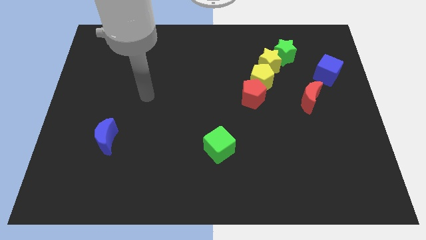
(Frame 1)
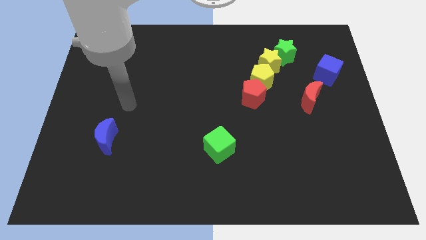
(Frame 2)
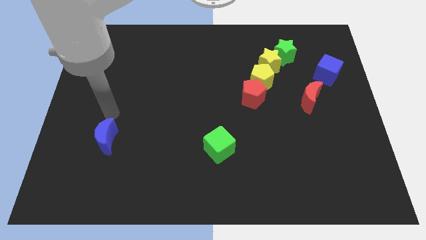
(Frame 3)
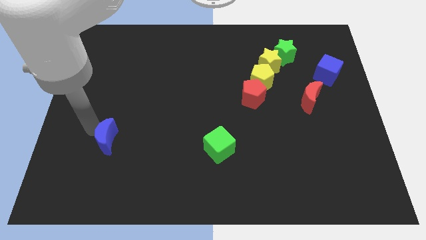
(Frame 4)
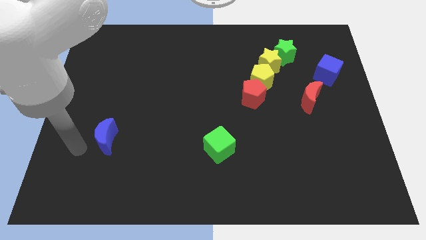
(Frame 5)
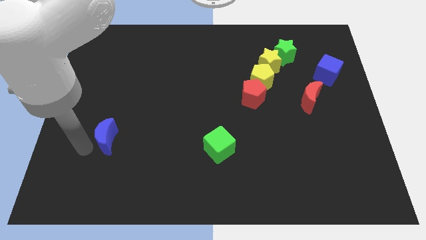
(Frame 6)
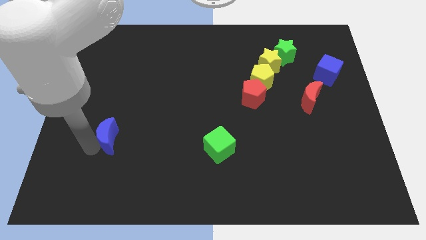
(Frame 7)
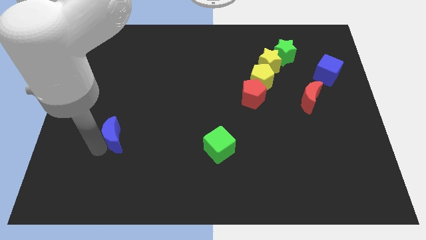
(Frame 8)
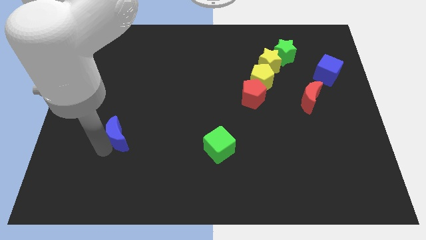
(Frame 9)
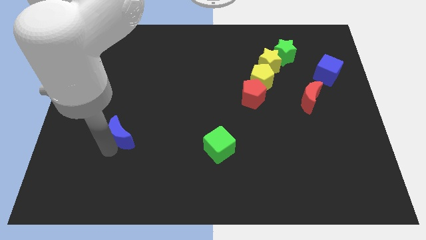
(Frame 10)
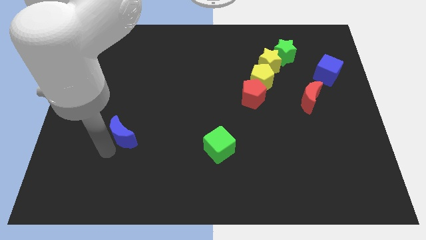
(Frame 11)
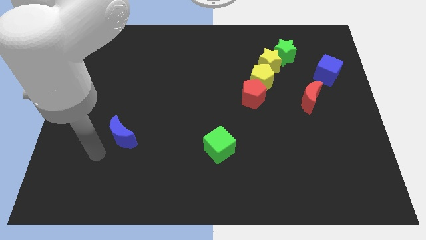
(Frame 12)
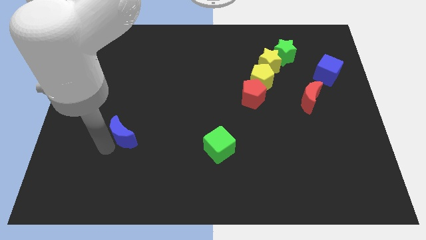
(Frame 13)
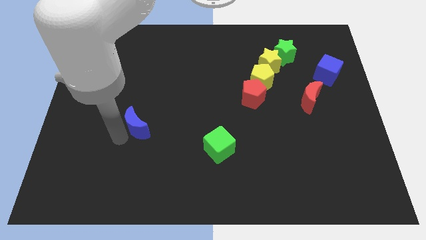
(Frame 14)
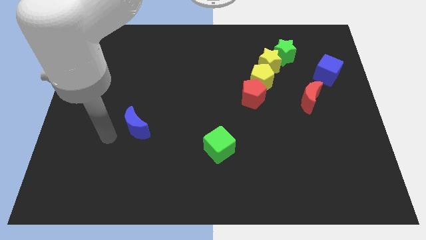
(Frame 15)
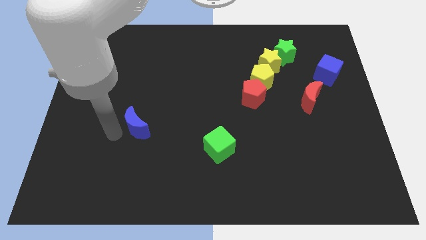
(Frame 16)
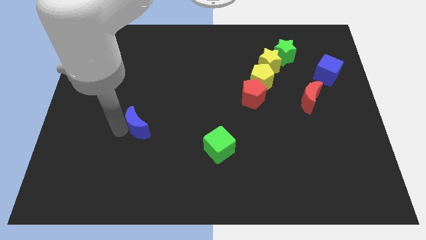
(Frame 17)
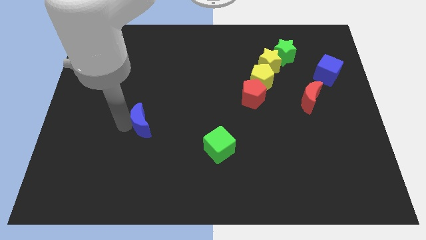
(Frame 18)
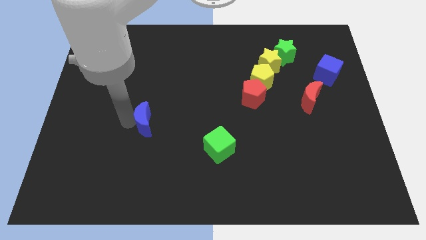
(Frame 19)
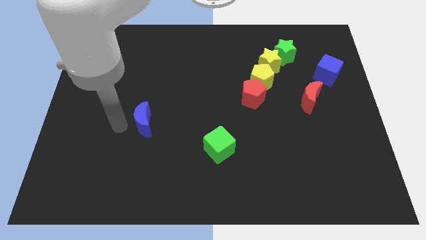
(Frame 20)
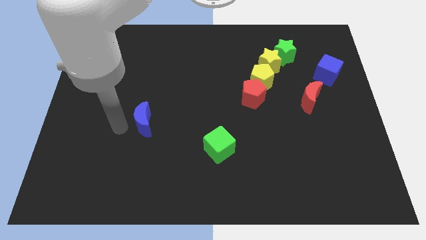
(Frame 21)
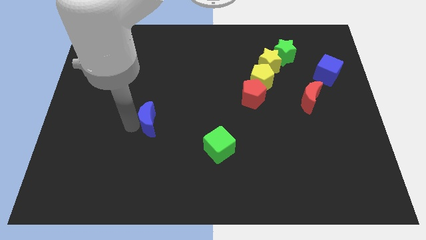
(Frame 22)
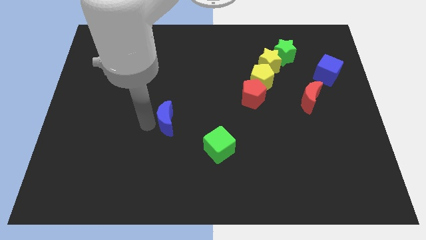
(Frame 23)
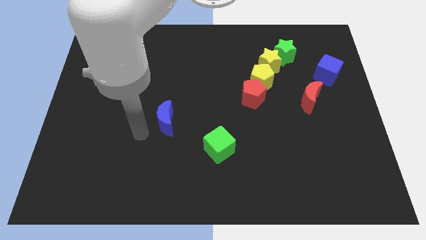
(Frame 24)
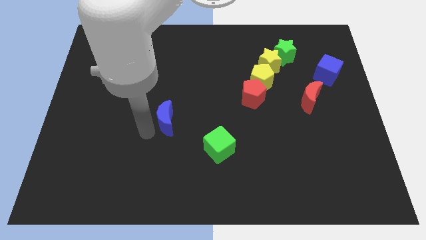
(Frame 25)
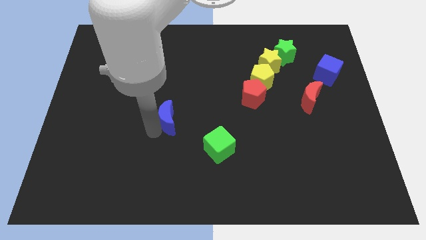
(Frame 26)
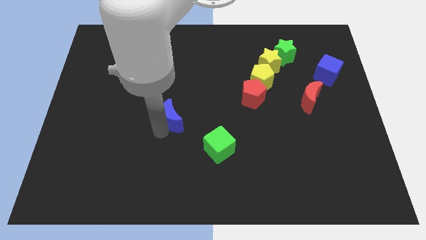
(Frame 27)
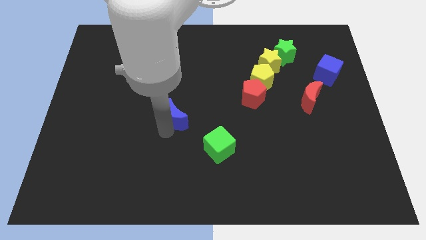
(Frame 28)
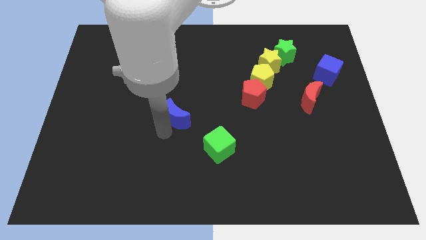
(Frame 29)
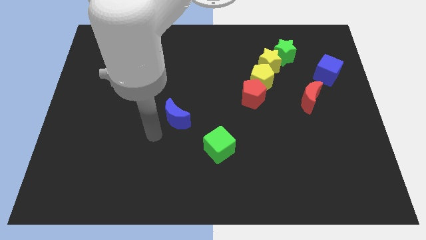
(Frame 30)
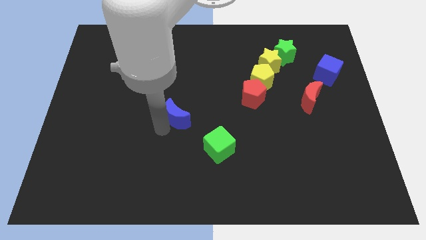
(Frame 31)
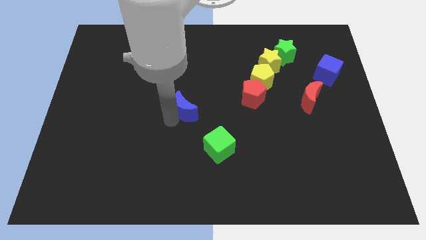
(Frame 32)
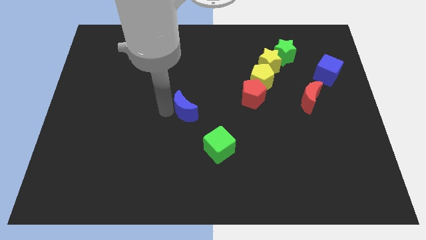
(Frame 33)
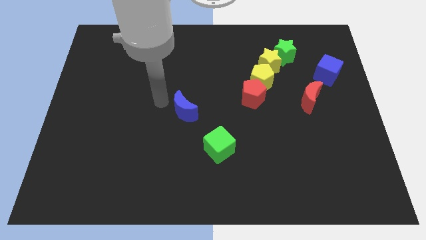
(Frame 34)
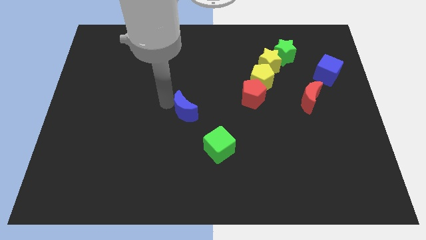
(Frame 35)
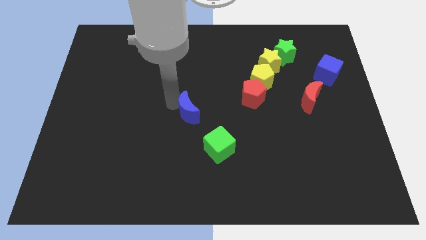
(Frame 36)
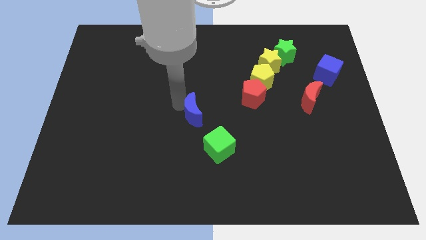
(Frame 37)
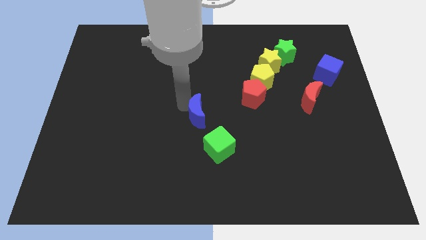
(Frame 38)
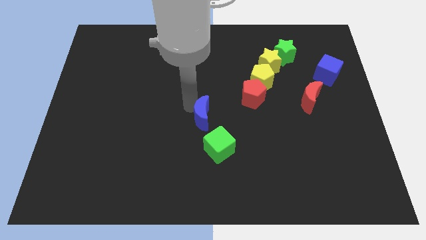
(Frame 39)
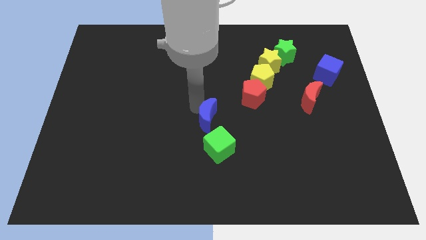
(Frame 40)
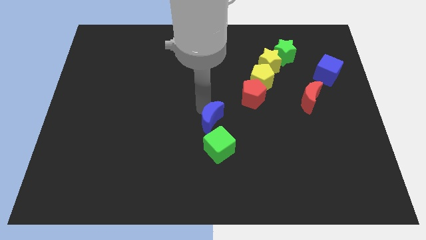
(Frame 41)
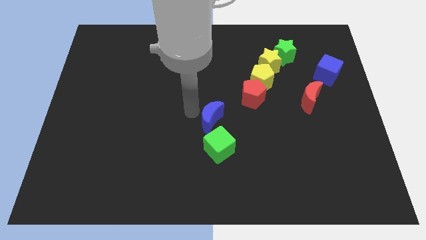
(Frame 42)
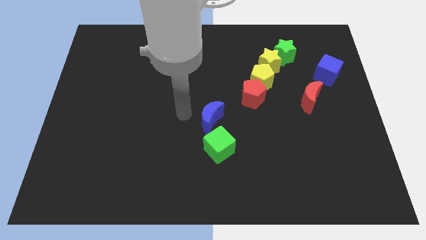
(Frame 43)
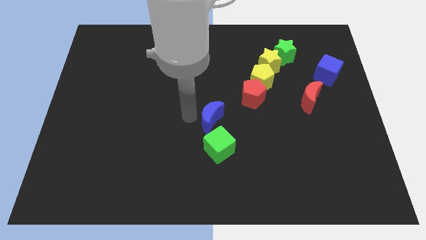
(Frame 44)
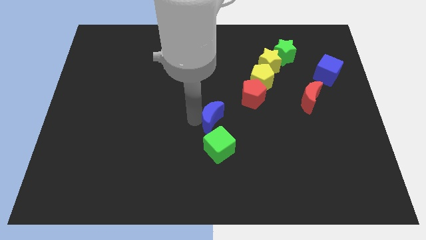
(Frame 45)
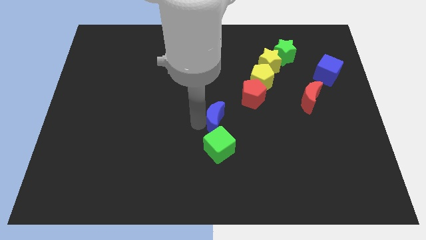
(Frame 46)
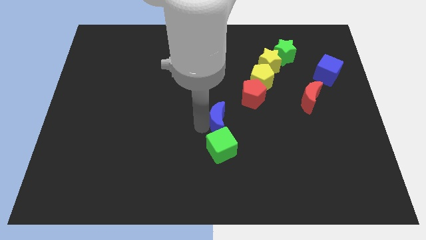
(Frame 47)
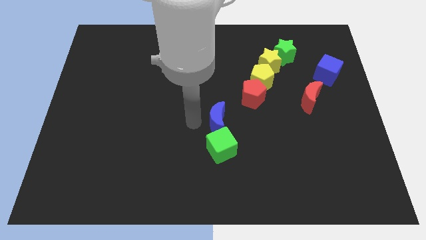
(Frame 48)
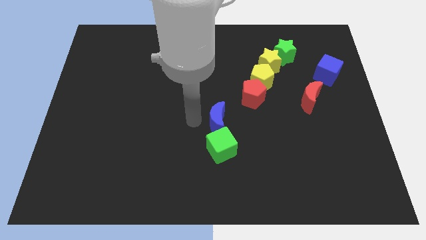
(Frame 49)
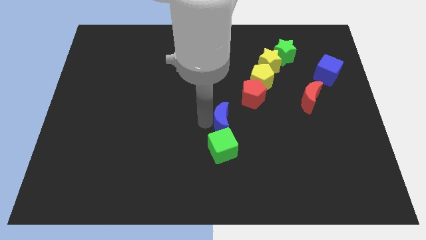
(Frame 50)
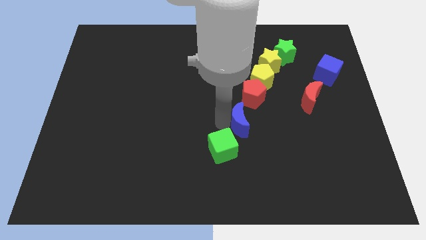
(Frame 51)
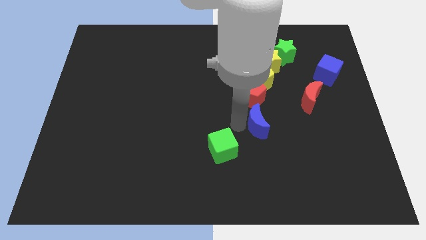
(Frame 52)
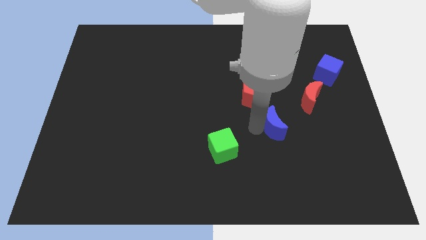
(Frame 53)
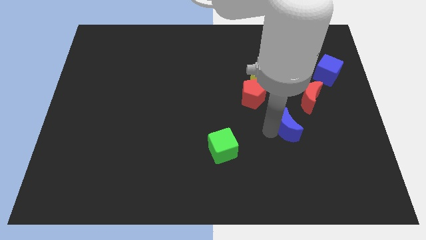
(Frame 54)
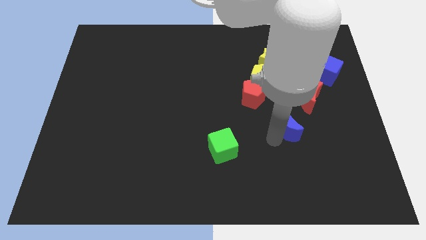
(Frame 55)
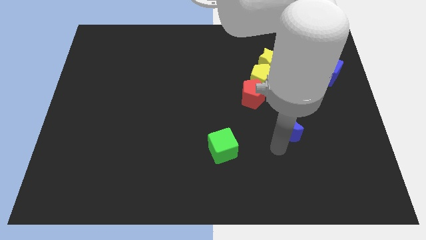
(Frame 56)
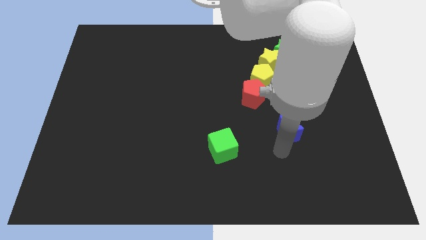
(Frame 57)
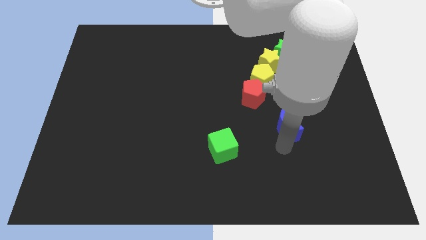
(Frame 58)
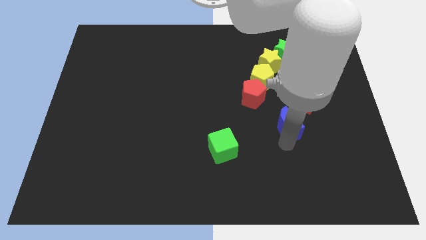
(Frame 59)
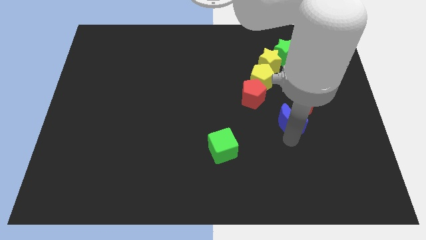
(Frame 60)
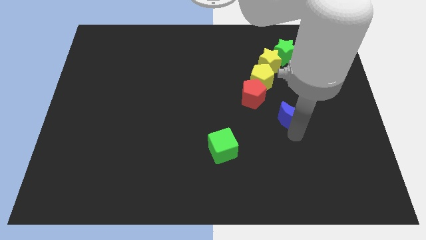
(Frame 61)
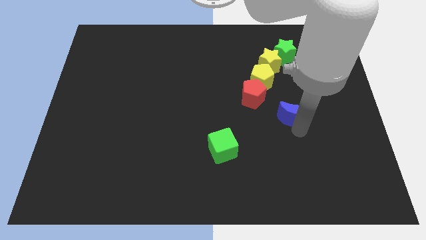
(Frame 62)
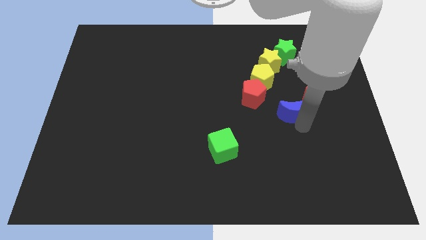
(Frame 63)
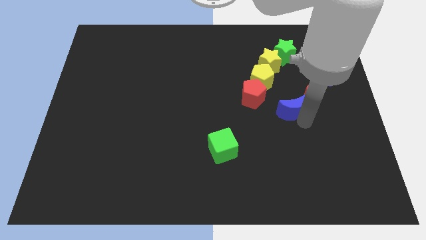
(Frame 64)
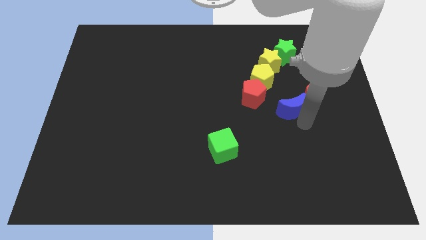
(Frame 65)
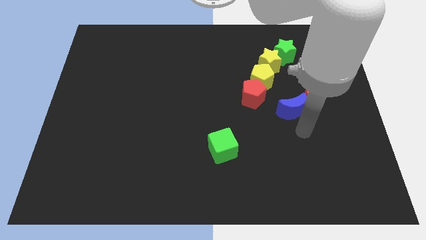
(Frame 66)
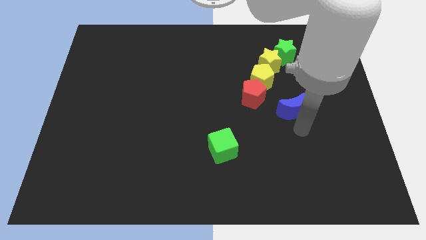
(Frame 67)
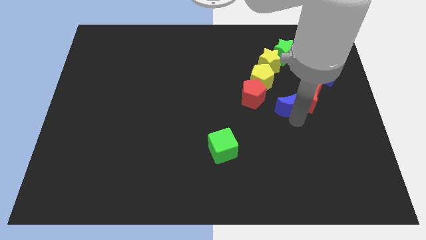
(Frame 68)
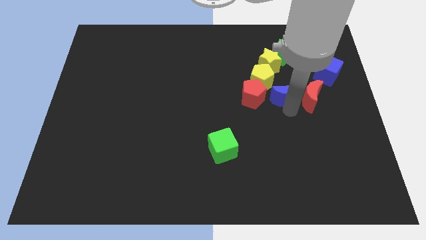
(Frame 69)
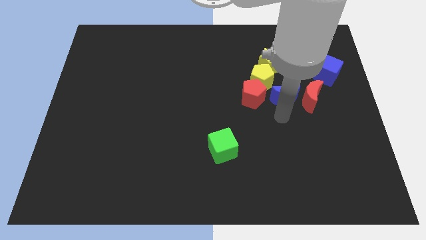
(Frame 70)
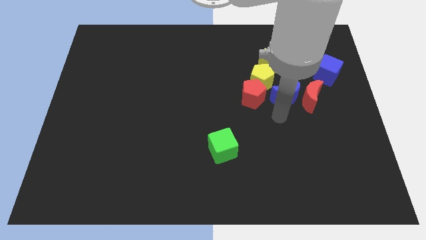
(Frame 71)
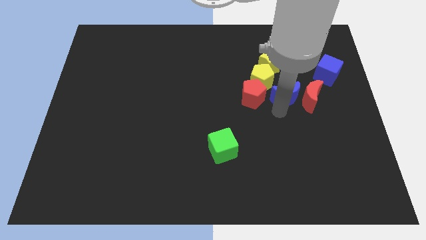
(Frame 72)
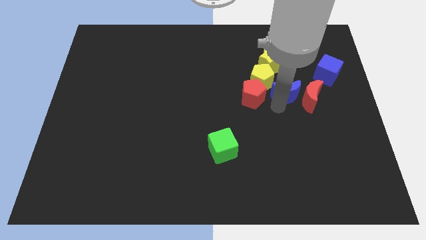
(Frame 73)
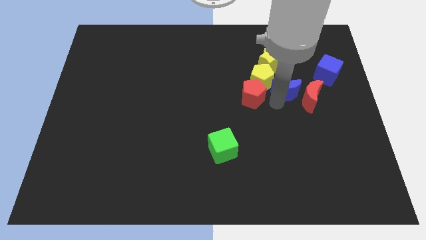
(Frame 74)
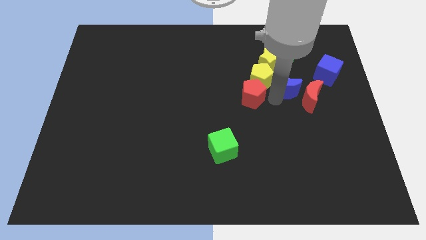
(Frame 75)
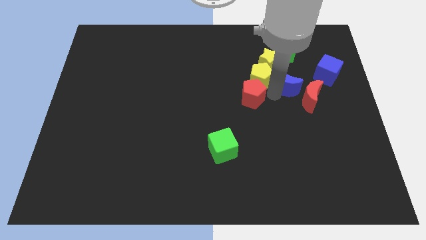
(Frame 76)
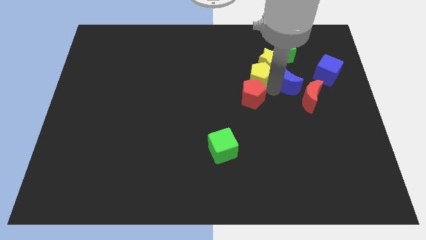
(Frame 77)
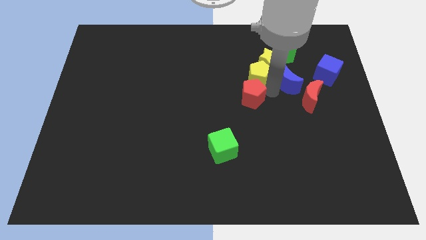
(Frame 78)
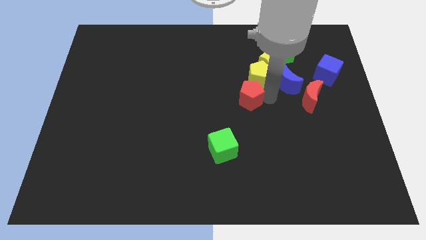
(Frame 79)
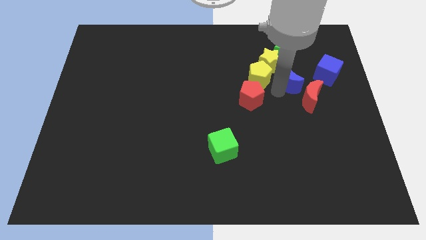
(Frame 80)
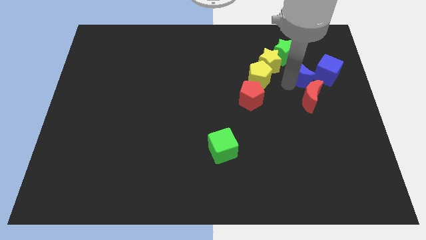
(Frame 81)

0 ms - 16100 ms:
move the blue moon to the bottom right side of the green star
